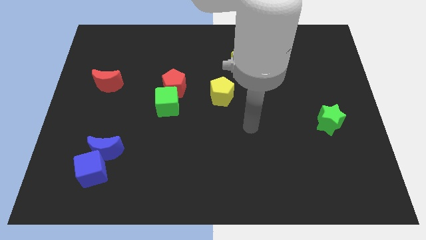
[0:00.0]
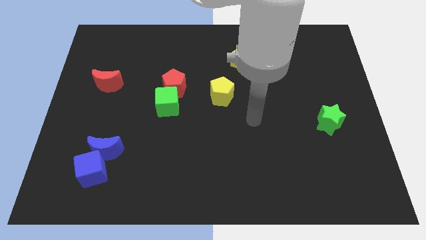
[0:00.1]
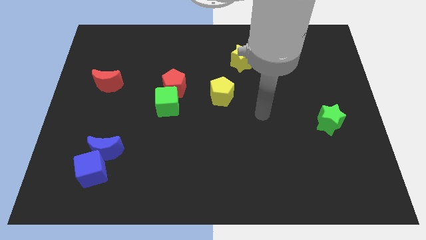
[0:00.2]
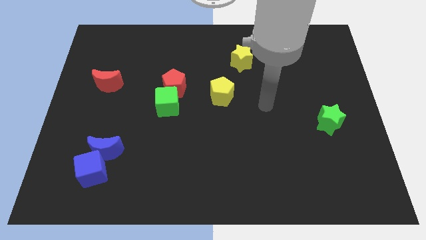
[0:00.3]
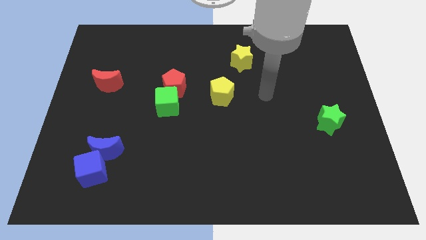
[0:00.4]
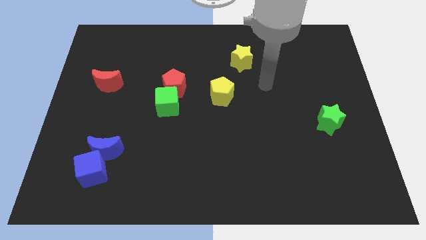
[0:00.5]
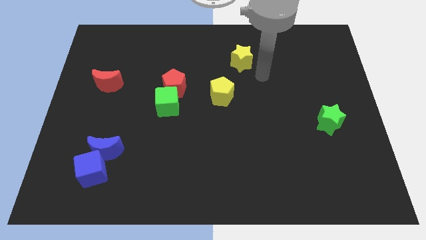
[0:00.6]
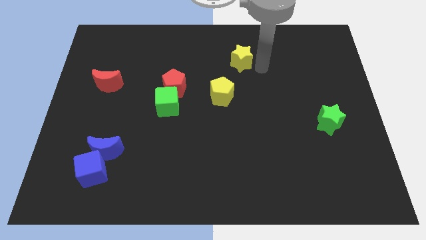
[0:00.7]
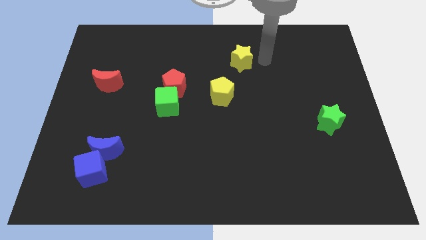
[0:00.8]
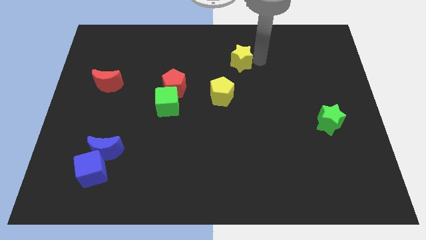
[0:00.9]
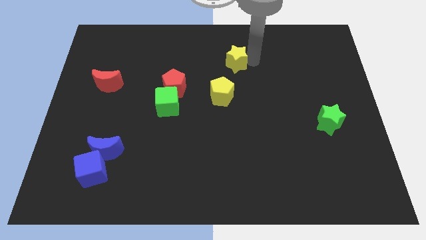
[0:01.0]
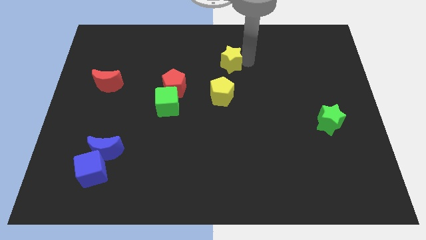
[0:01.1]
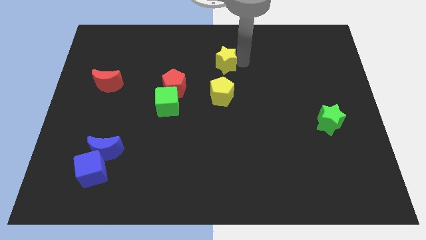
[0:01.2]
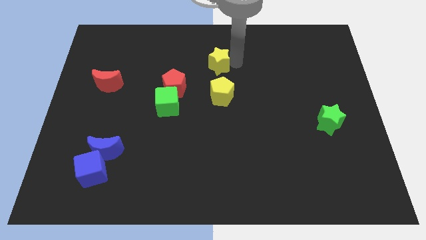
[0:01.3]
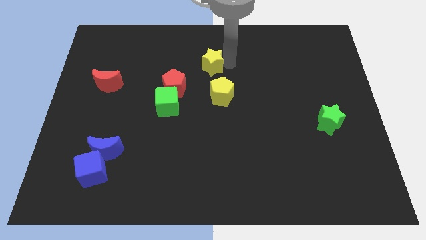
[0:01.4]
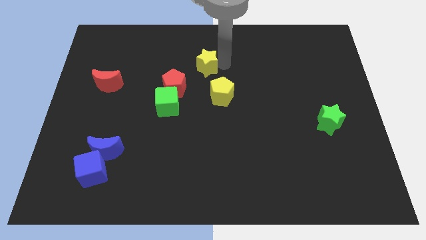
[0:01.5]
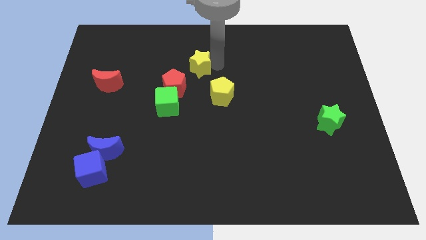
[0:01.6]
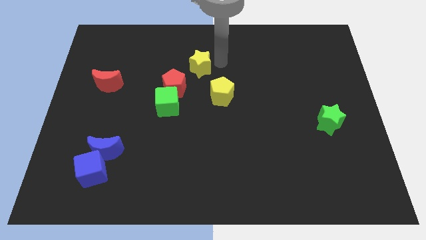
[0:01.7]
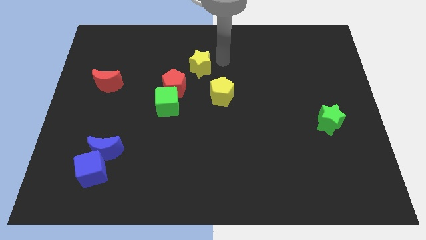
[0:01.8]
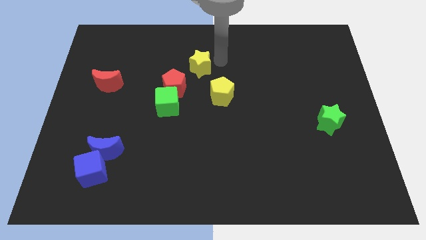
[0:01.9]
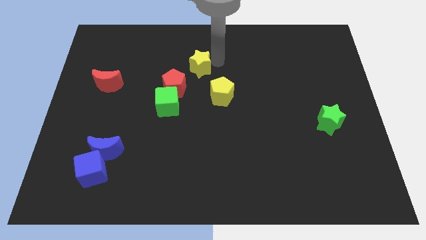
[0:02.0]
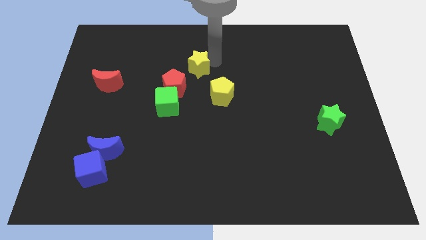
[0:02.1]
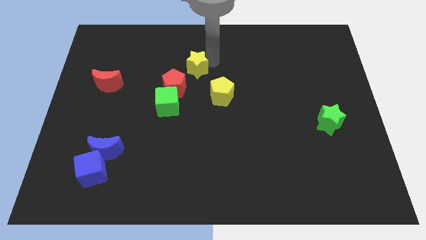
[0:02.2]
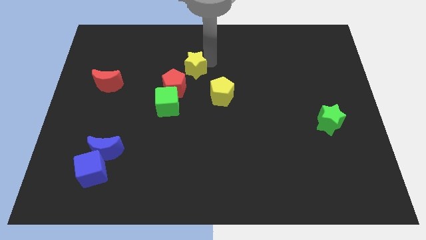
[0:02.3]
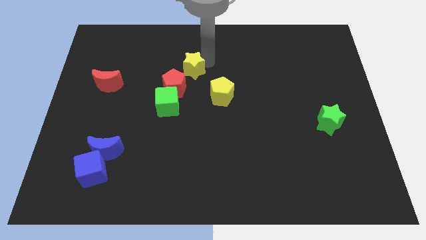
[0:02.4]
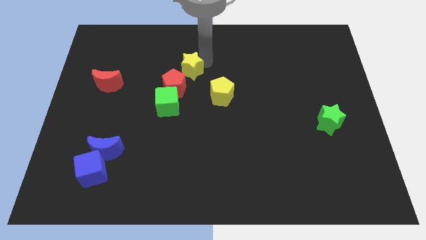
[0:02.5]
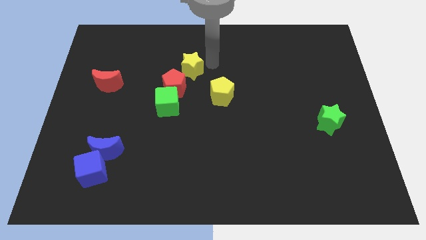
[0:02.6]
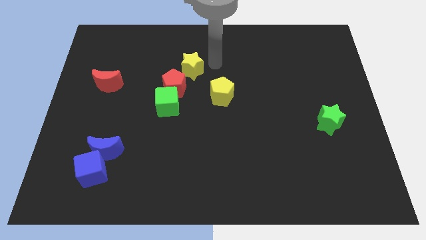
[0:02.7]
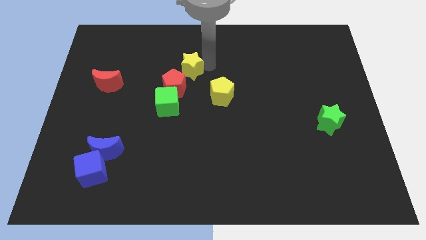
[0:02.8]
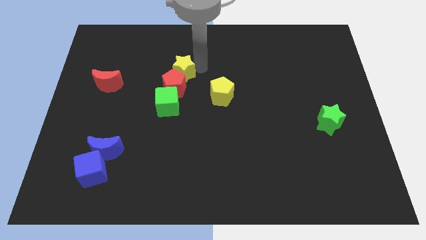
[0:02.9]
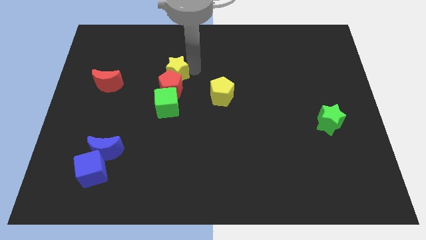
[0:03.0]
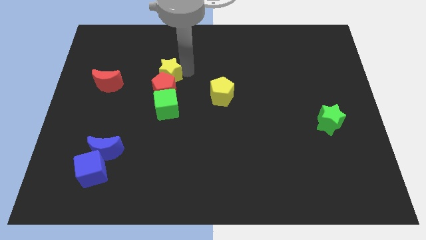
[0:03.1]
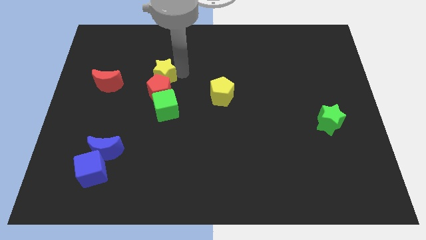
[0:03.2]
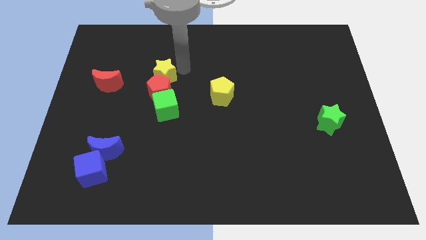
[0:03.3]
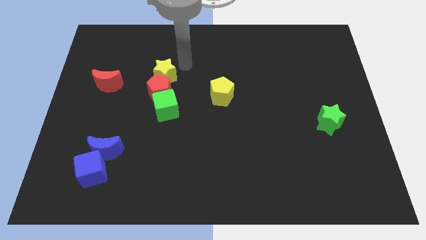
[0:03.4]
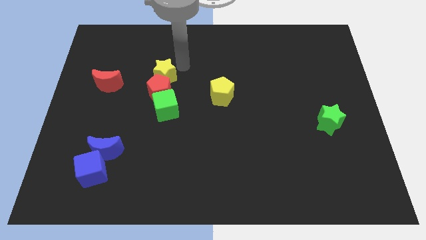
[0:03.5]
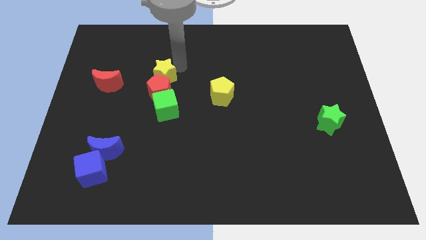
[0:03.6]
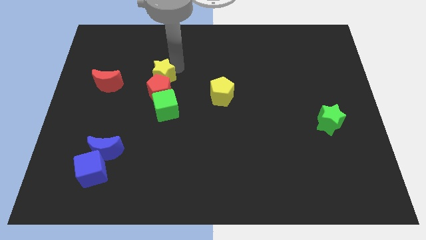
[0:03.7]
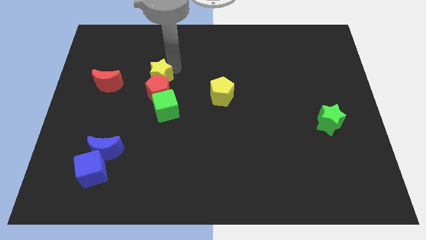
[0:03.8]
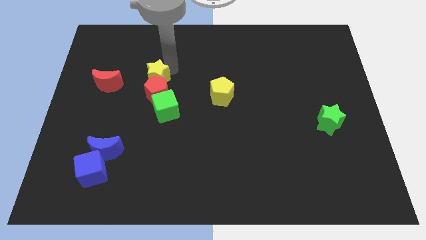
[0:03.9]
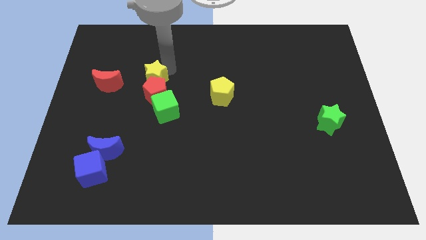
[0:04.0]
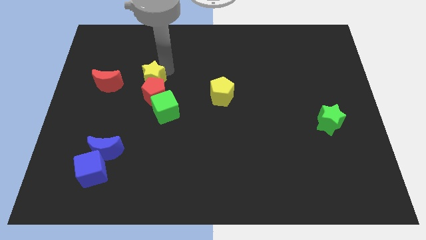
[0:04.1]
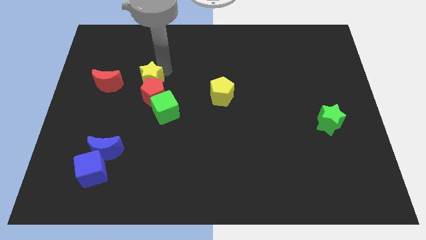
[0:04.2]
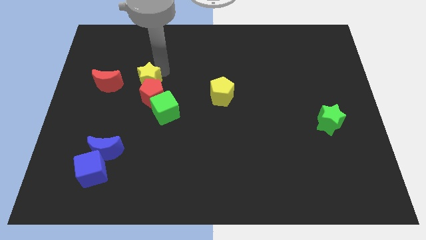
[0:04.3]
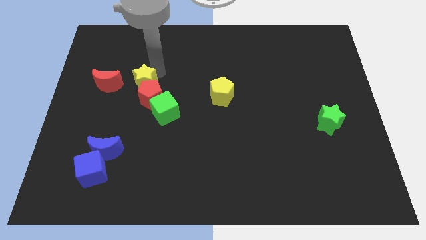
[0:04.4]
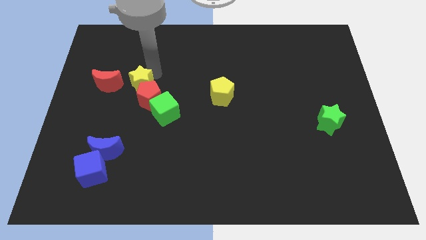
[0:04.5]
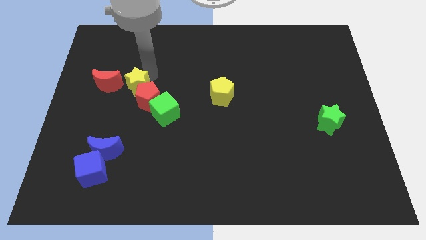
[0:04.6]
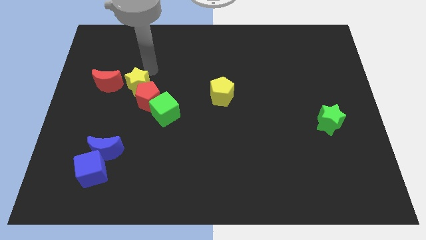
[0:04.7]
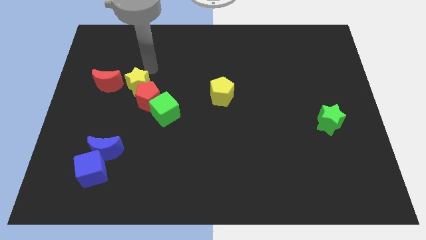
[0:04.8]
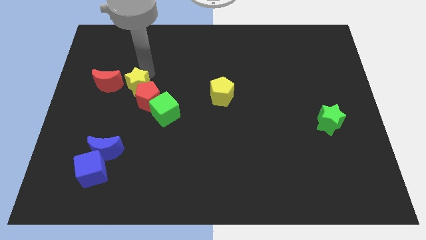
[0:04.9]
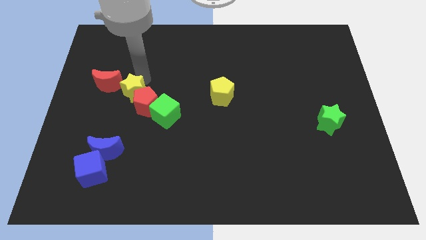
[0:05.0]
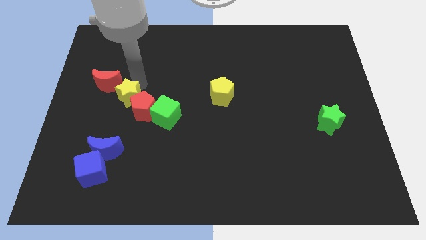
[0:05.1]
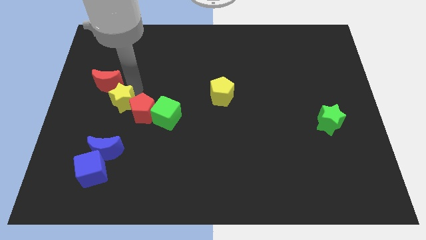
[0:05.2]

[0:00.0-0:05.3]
put the yellow star left of the green cube

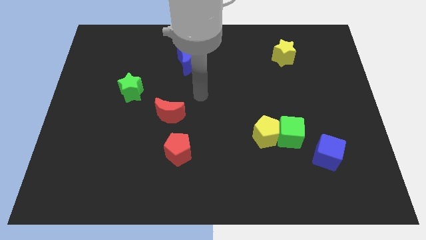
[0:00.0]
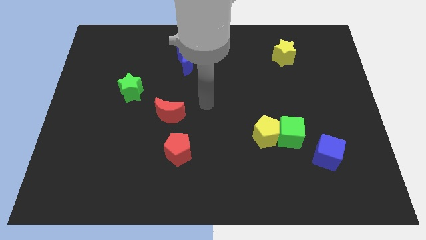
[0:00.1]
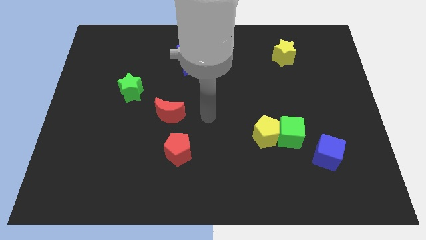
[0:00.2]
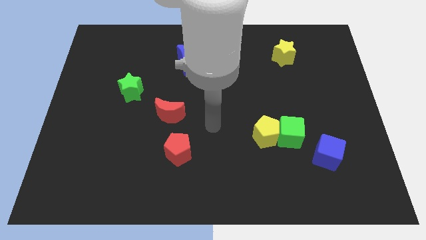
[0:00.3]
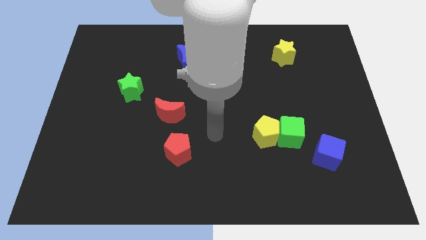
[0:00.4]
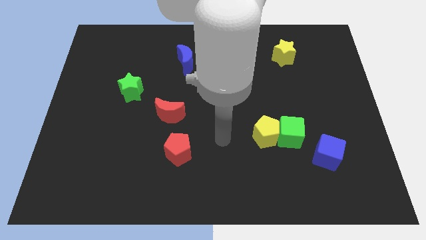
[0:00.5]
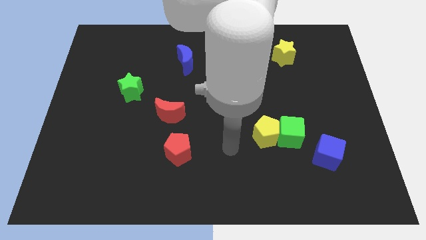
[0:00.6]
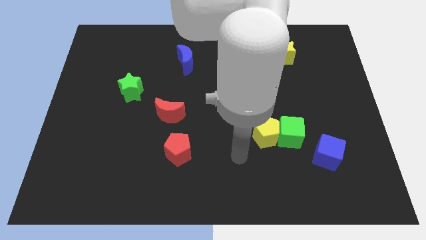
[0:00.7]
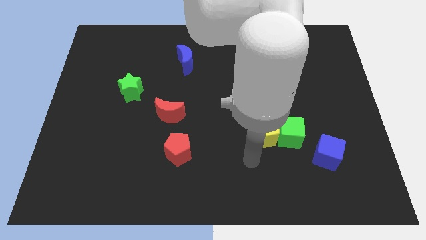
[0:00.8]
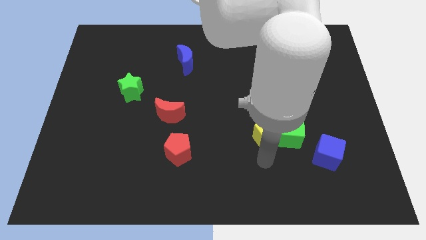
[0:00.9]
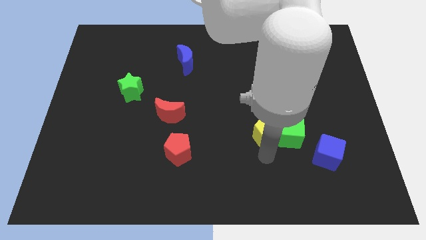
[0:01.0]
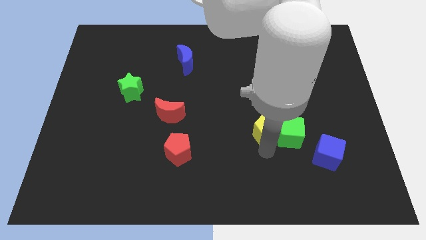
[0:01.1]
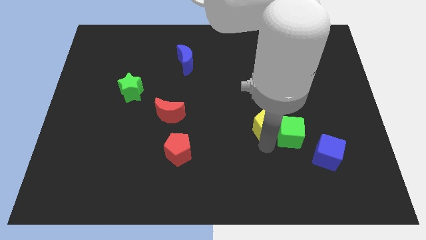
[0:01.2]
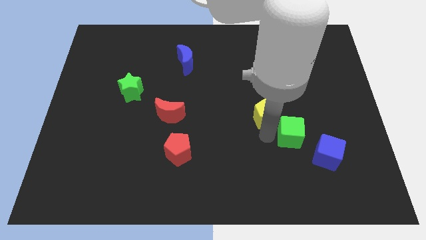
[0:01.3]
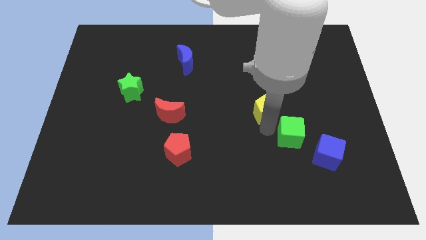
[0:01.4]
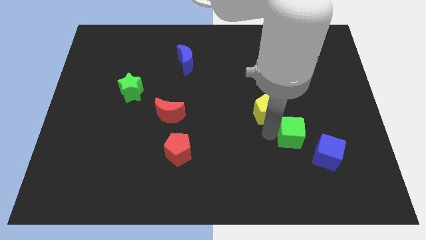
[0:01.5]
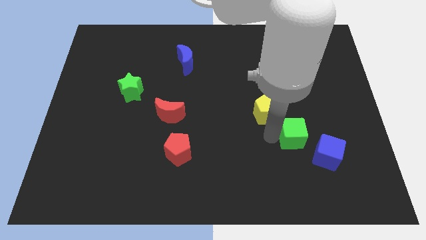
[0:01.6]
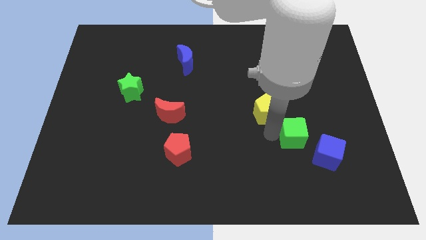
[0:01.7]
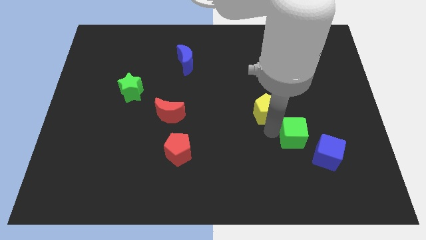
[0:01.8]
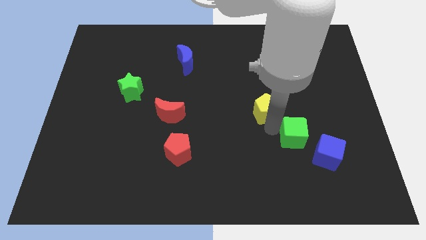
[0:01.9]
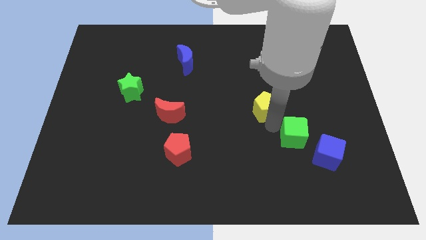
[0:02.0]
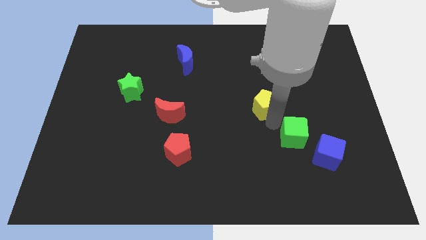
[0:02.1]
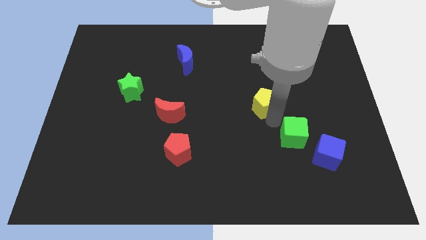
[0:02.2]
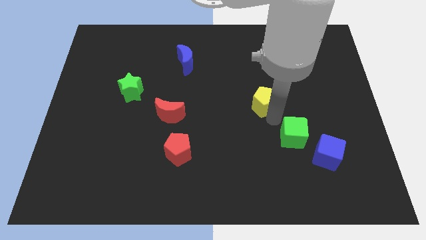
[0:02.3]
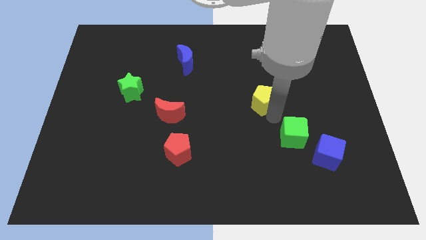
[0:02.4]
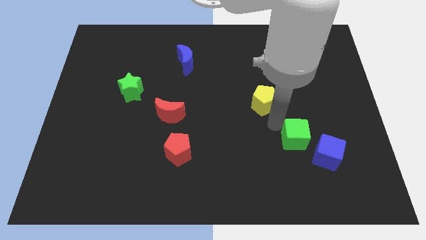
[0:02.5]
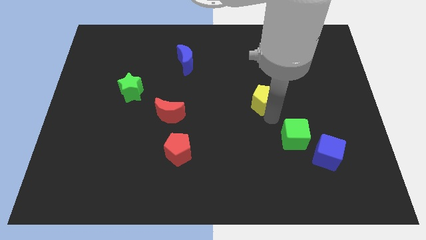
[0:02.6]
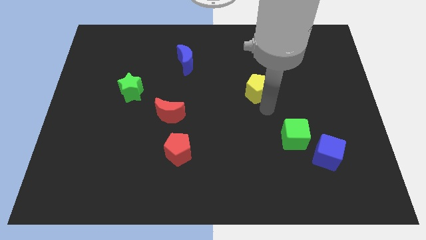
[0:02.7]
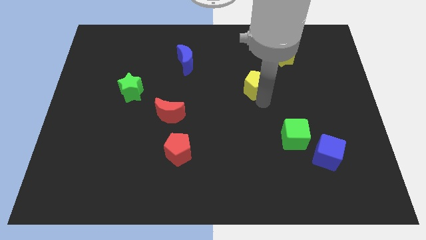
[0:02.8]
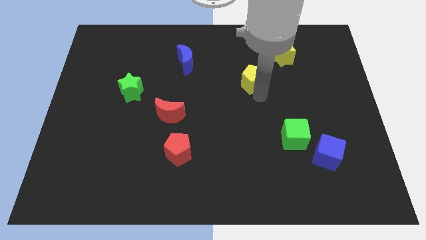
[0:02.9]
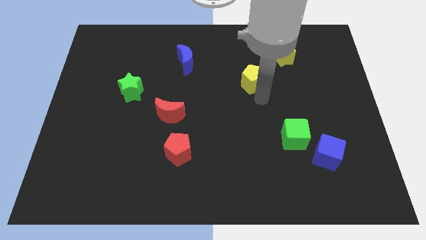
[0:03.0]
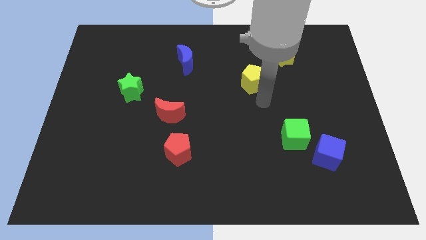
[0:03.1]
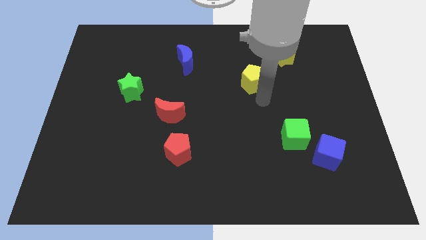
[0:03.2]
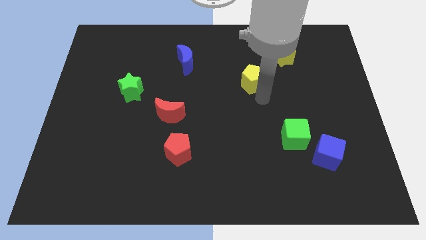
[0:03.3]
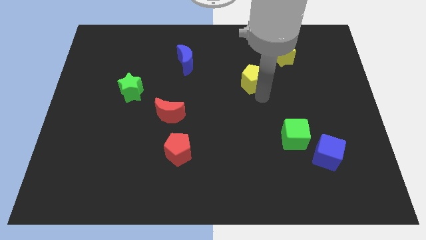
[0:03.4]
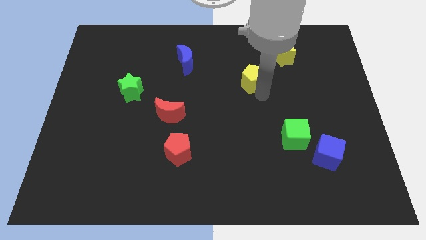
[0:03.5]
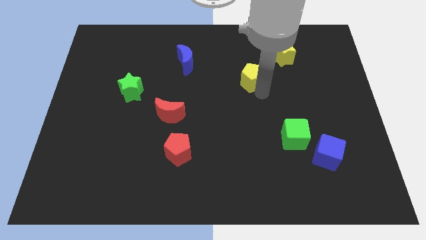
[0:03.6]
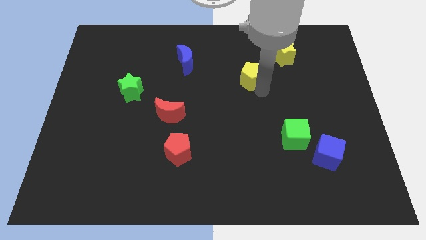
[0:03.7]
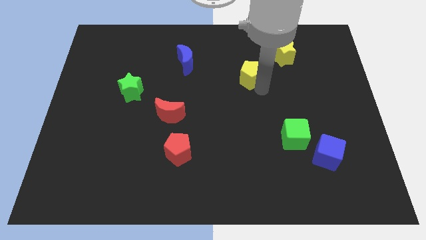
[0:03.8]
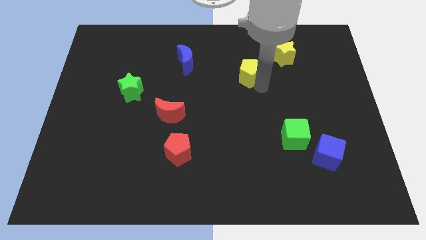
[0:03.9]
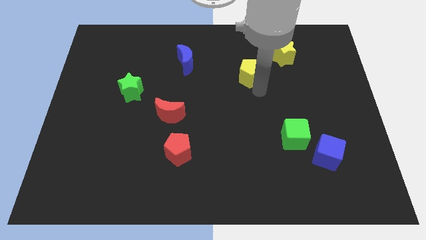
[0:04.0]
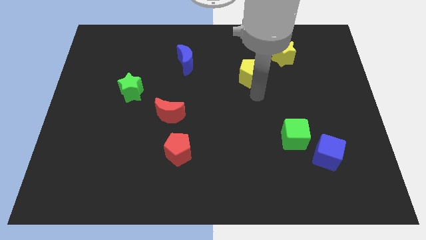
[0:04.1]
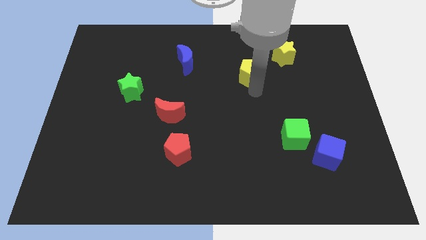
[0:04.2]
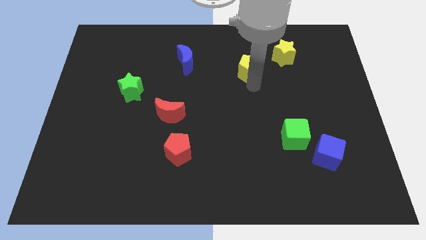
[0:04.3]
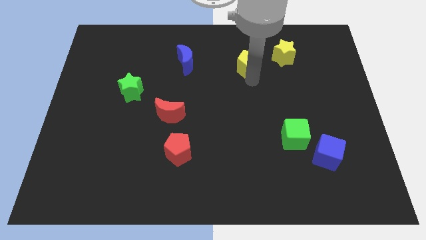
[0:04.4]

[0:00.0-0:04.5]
push the yellow pentagon to the left side of the yellow star
